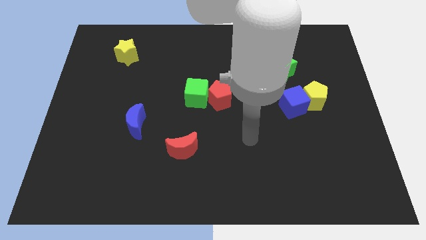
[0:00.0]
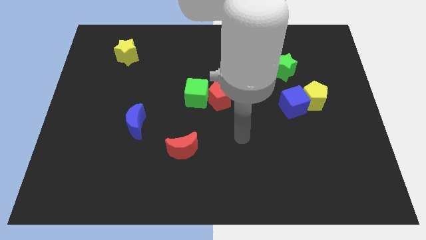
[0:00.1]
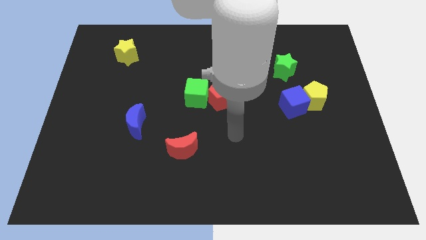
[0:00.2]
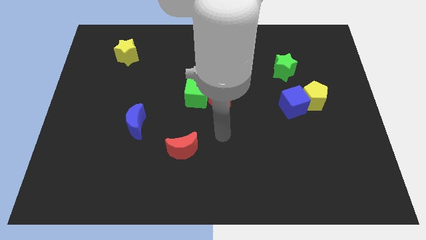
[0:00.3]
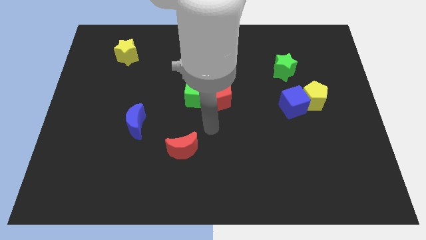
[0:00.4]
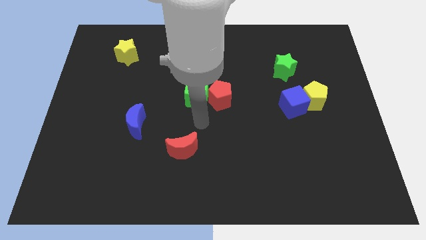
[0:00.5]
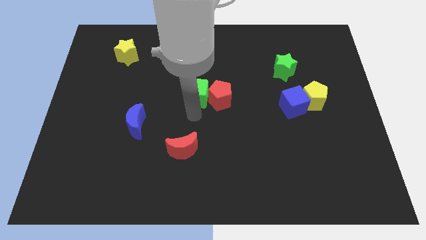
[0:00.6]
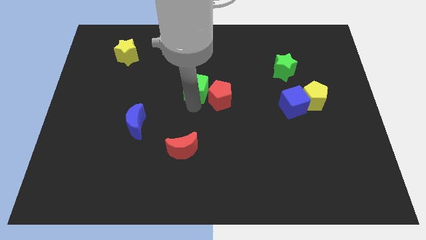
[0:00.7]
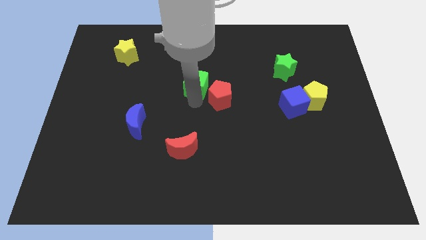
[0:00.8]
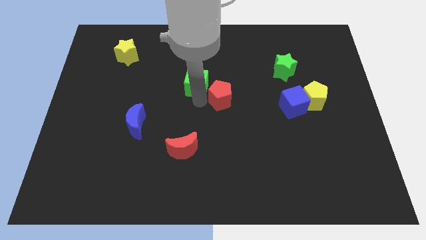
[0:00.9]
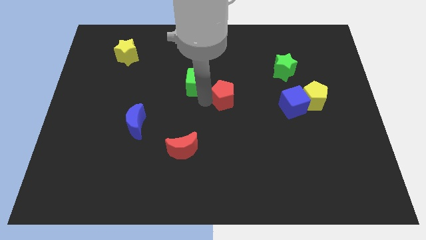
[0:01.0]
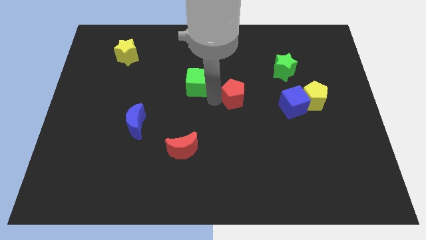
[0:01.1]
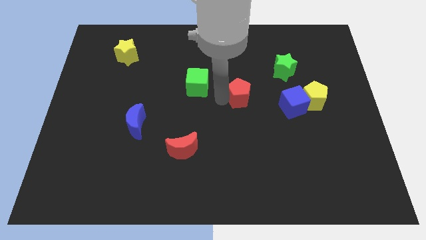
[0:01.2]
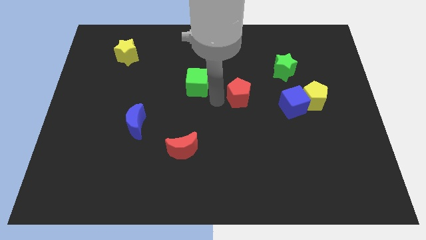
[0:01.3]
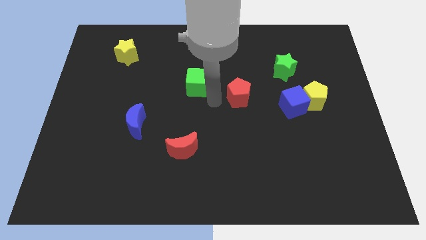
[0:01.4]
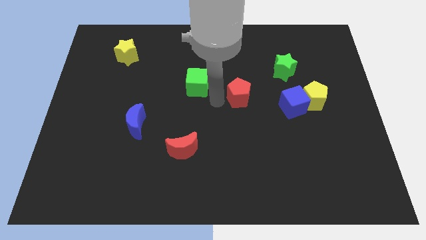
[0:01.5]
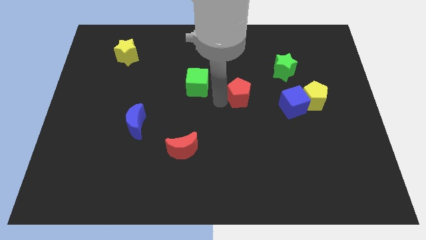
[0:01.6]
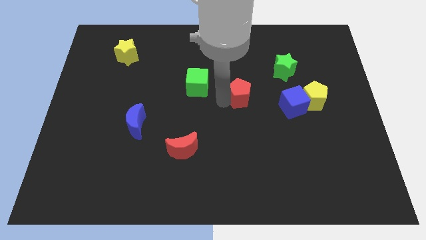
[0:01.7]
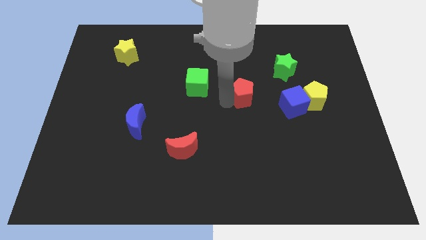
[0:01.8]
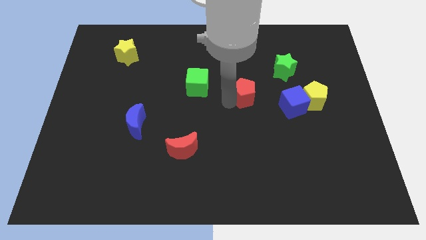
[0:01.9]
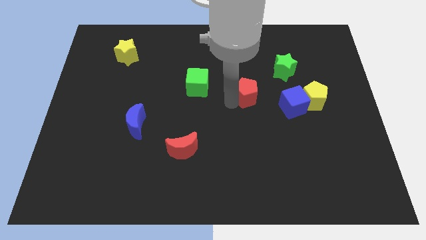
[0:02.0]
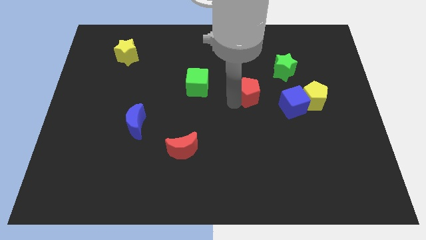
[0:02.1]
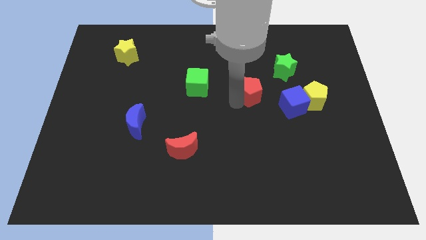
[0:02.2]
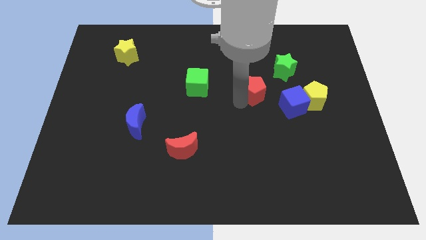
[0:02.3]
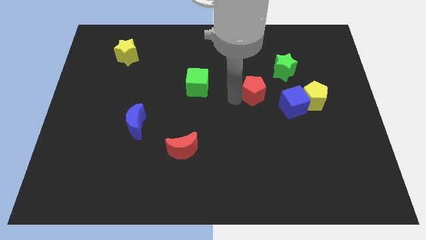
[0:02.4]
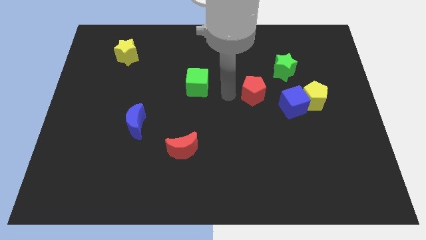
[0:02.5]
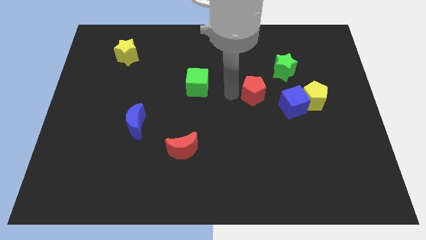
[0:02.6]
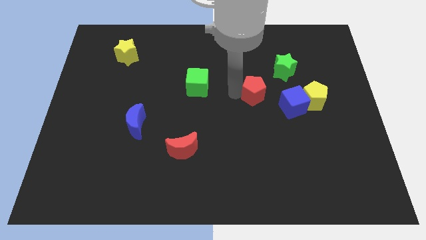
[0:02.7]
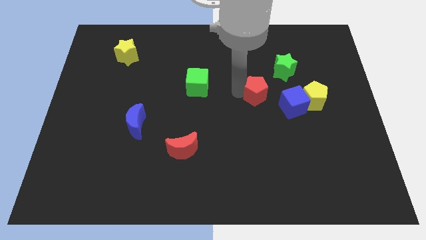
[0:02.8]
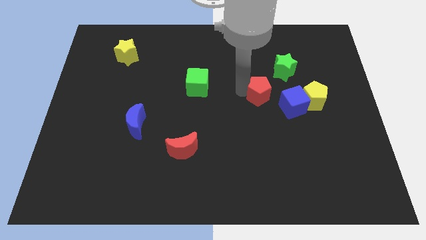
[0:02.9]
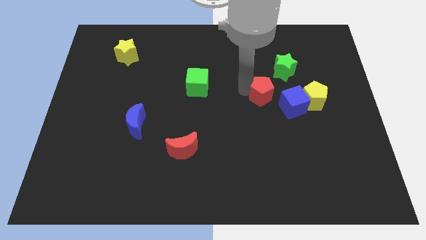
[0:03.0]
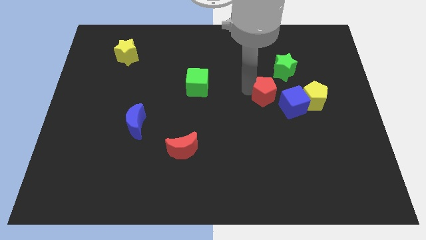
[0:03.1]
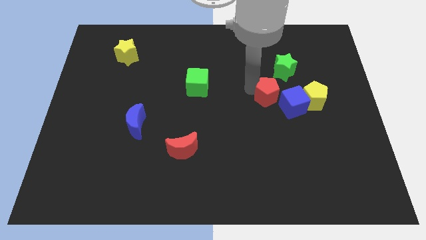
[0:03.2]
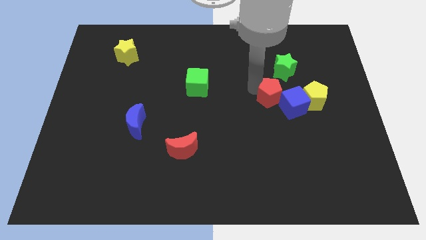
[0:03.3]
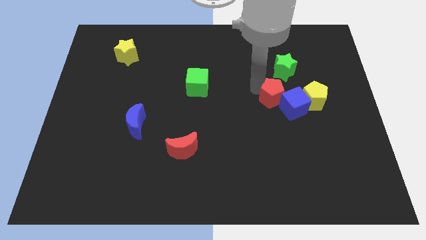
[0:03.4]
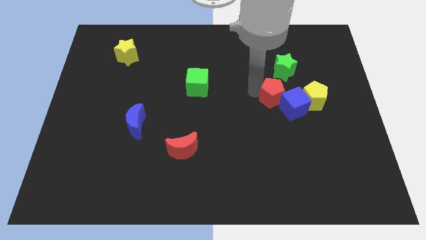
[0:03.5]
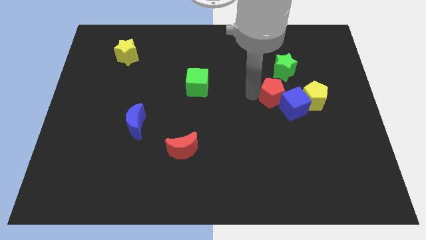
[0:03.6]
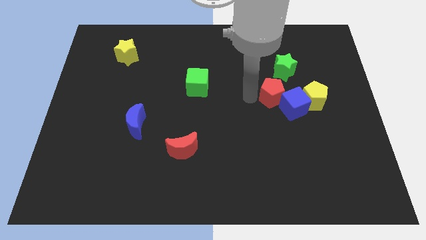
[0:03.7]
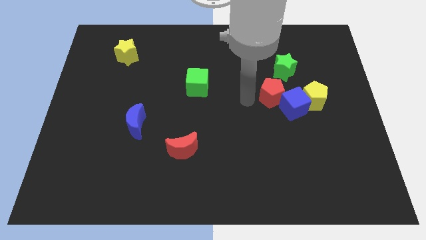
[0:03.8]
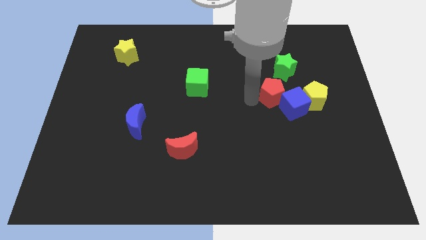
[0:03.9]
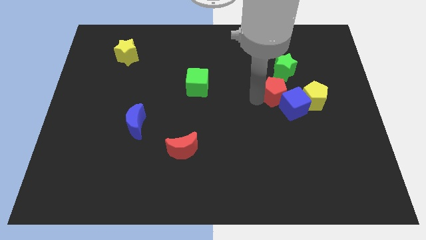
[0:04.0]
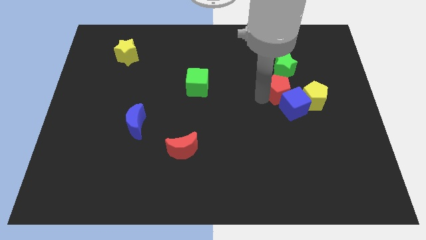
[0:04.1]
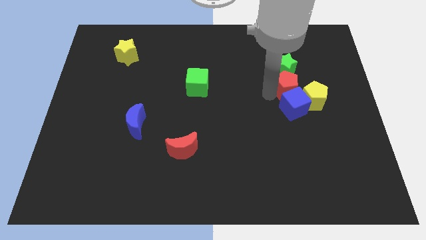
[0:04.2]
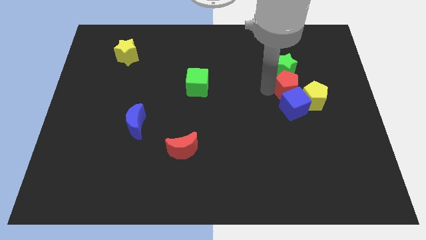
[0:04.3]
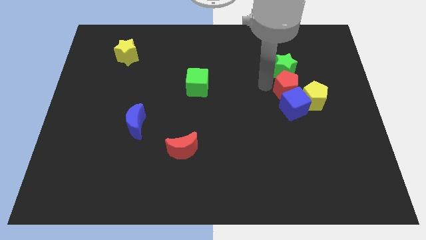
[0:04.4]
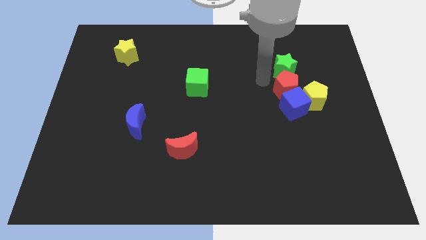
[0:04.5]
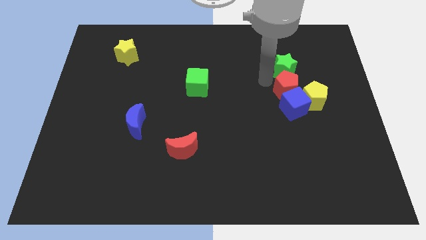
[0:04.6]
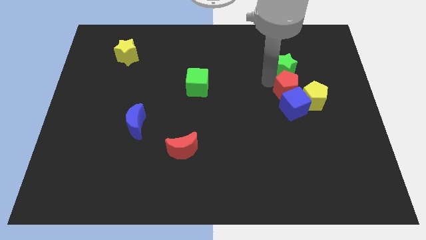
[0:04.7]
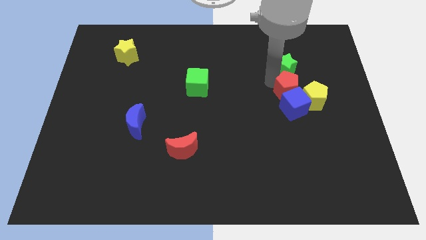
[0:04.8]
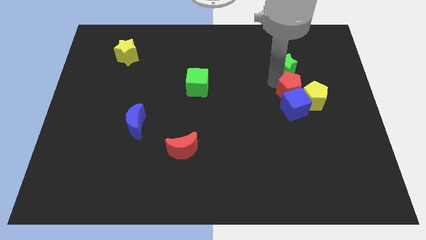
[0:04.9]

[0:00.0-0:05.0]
move the red pentagon next to the yellow pentagon

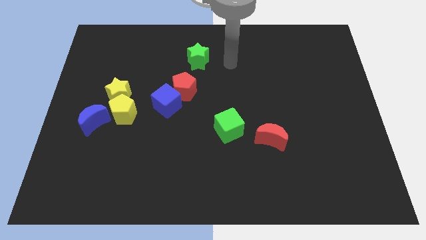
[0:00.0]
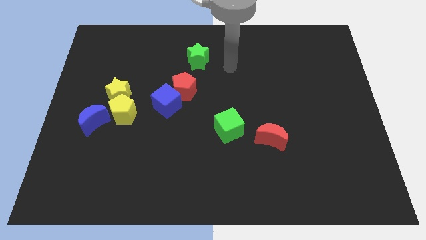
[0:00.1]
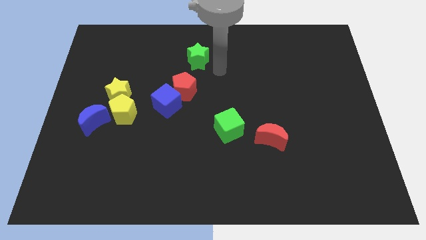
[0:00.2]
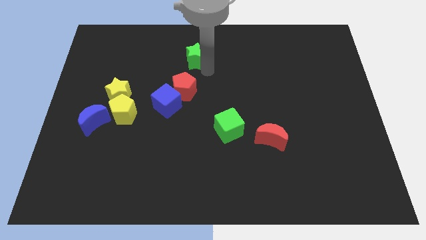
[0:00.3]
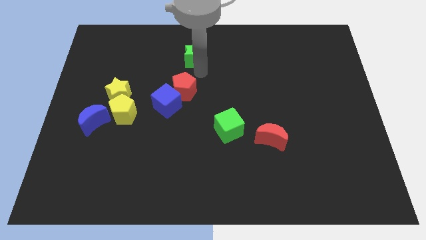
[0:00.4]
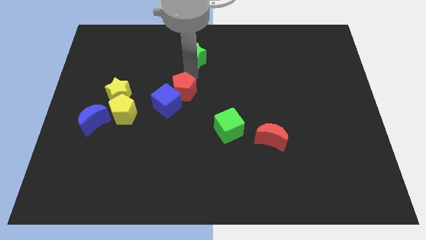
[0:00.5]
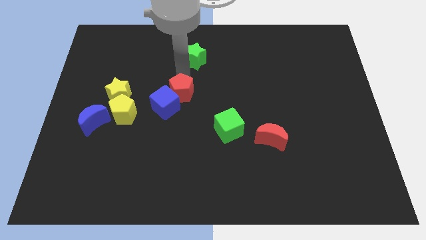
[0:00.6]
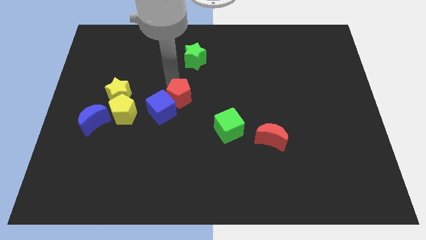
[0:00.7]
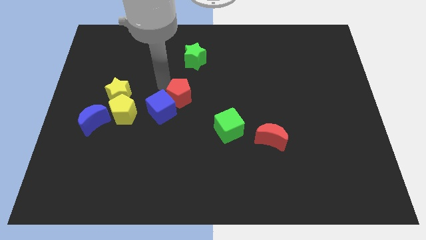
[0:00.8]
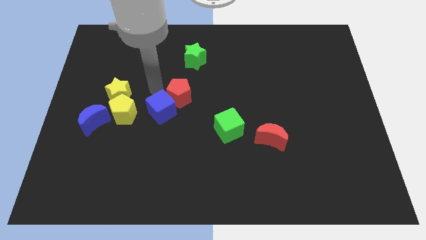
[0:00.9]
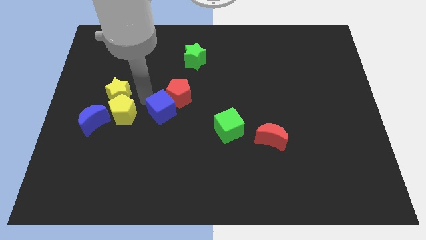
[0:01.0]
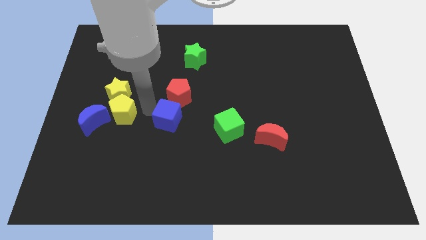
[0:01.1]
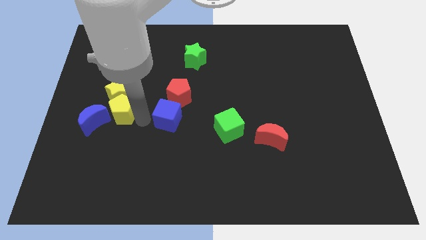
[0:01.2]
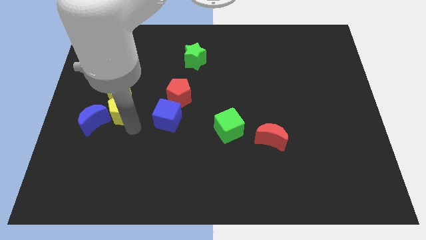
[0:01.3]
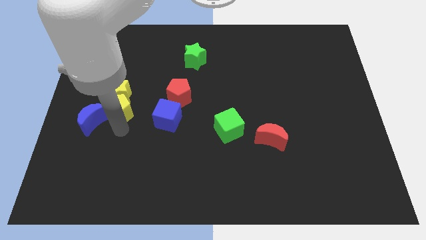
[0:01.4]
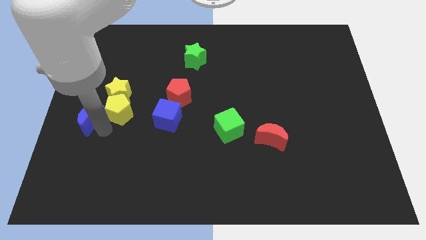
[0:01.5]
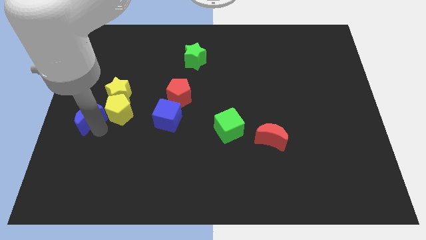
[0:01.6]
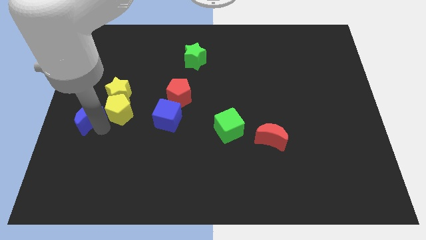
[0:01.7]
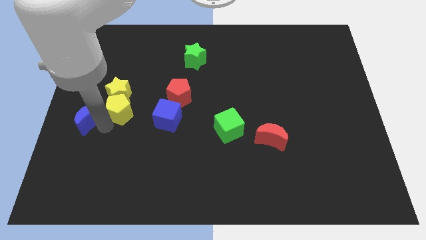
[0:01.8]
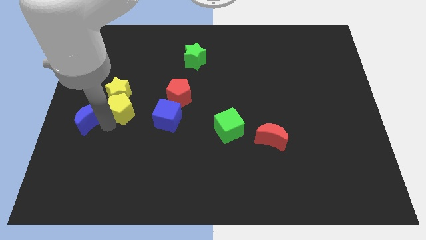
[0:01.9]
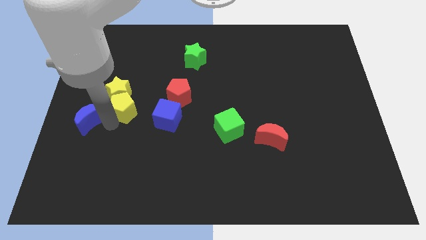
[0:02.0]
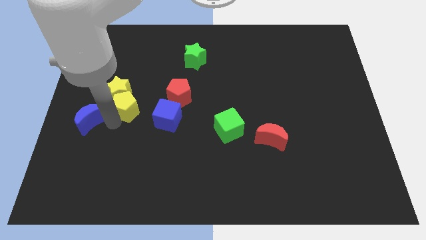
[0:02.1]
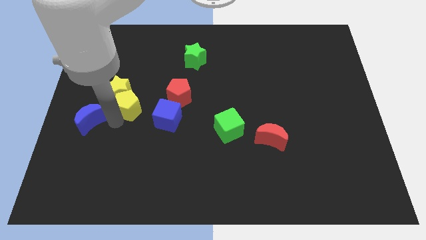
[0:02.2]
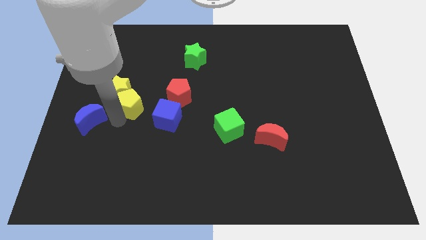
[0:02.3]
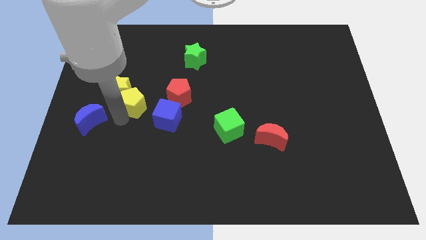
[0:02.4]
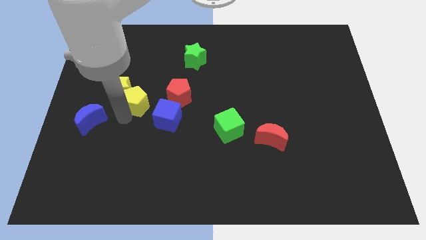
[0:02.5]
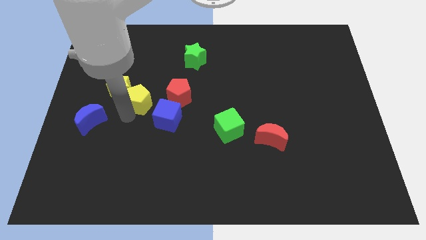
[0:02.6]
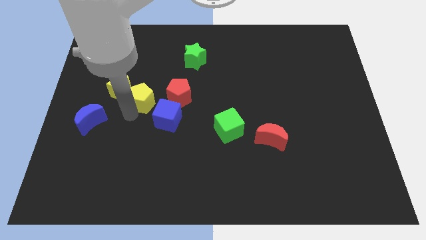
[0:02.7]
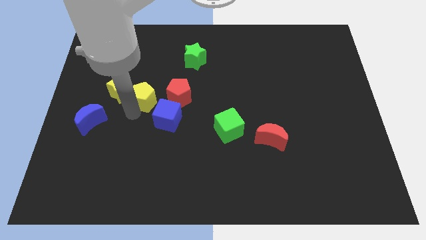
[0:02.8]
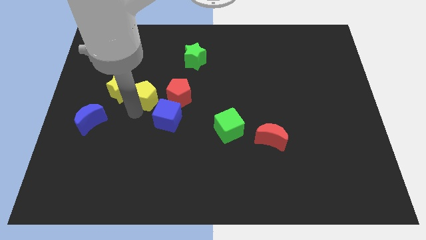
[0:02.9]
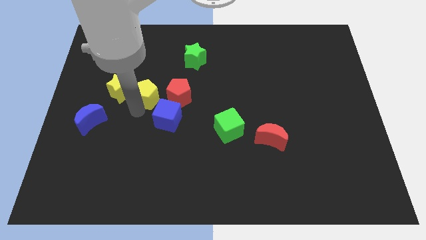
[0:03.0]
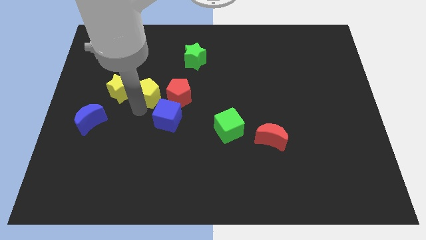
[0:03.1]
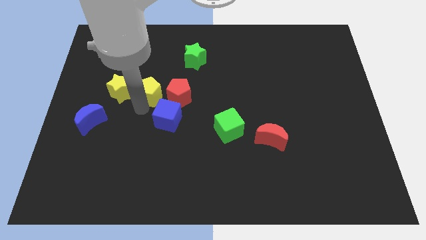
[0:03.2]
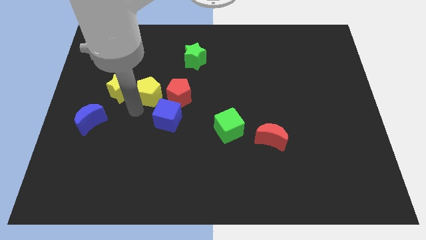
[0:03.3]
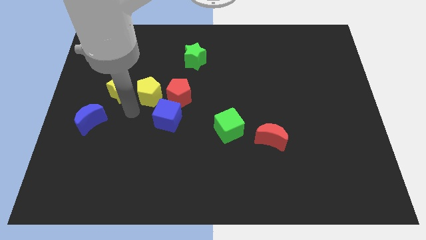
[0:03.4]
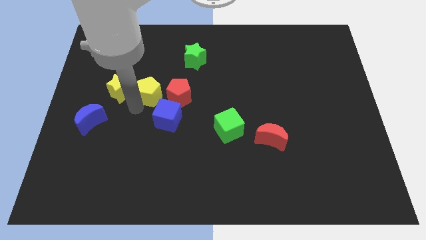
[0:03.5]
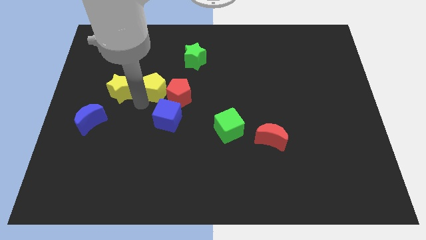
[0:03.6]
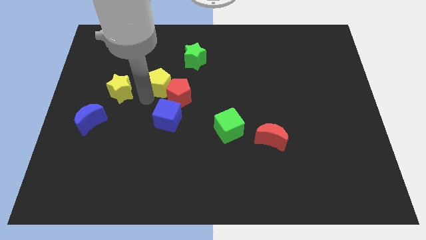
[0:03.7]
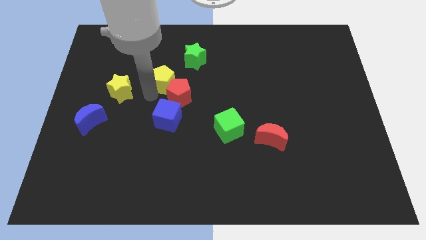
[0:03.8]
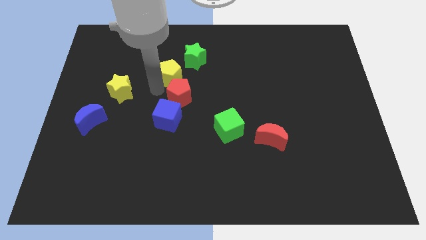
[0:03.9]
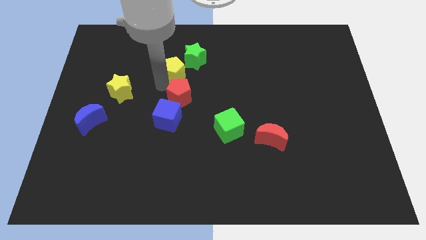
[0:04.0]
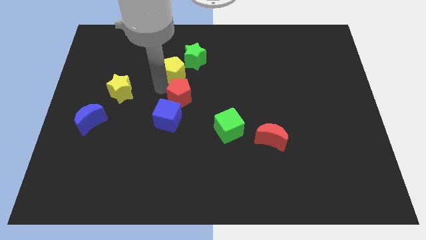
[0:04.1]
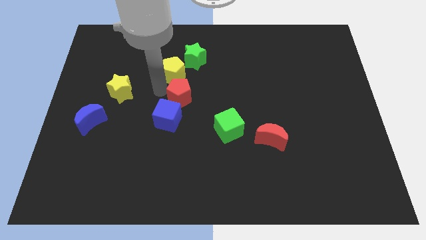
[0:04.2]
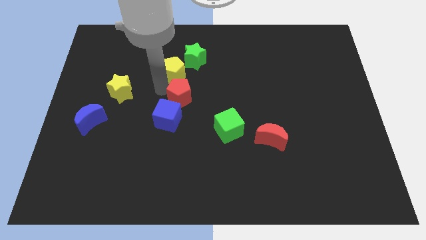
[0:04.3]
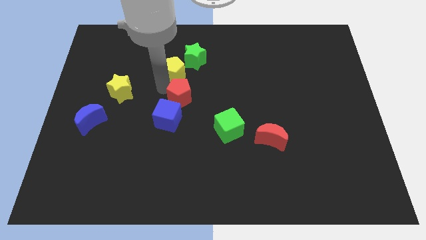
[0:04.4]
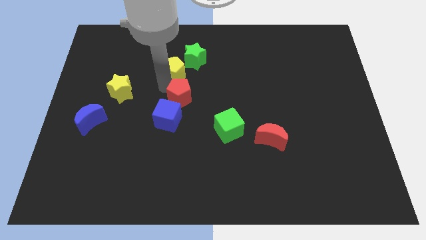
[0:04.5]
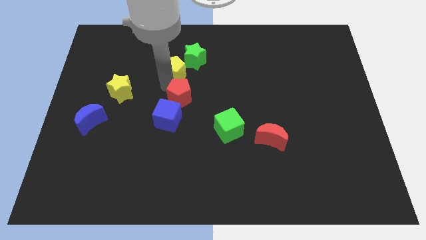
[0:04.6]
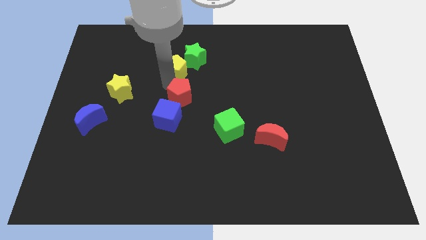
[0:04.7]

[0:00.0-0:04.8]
put the yellow pentagon next to the green star
